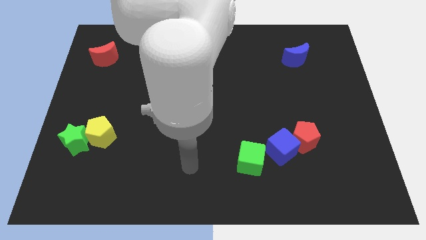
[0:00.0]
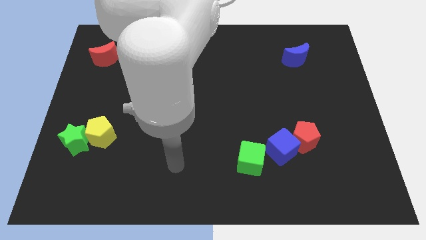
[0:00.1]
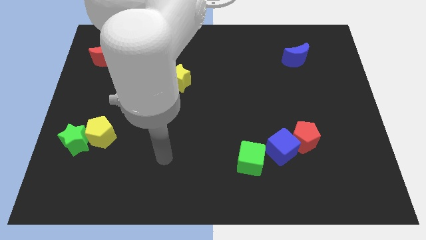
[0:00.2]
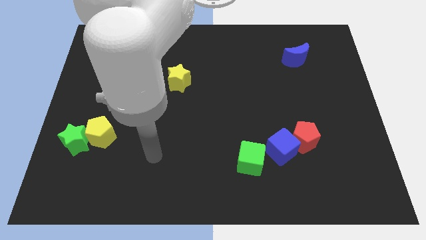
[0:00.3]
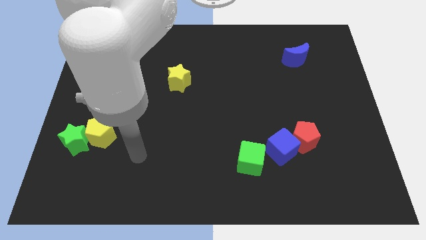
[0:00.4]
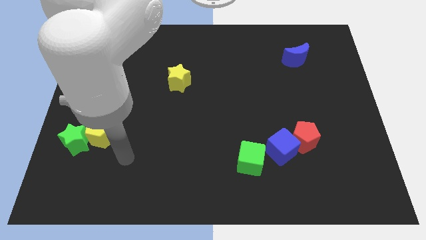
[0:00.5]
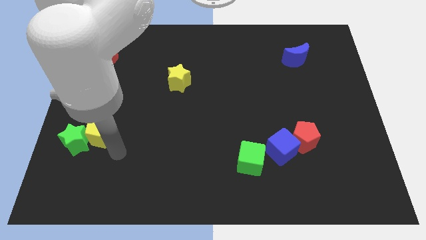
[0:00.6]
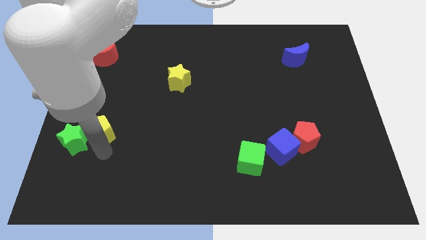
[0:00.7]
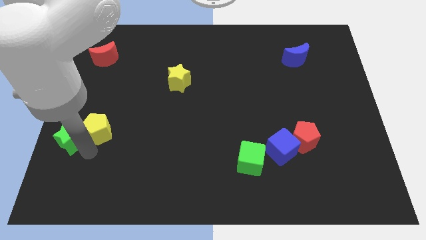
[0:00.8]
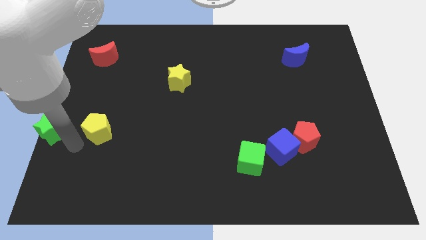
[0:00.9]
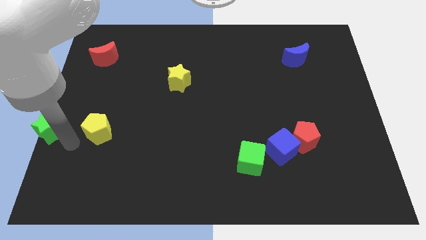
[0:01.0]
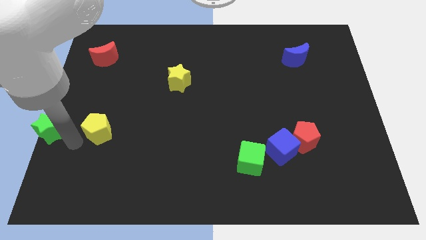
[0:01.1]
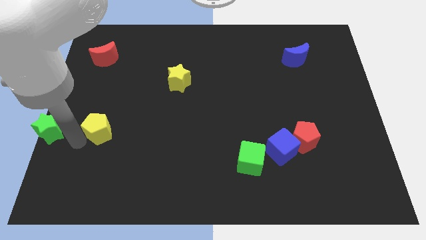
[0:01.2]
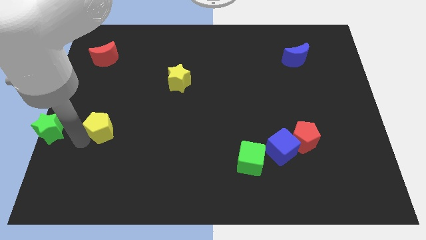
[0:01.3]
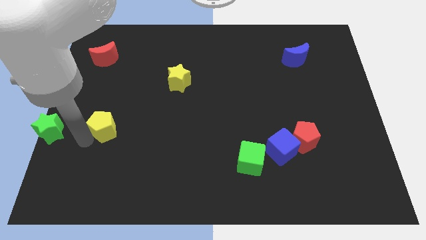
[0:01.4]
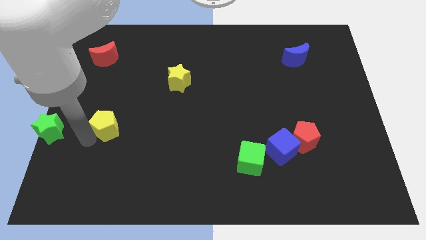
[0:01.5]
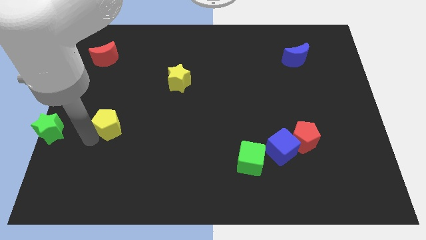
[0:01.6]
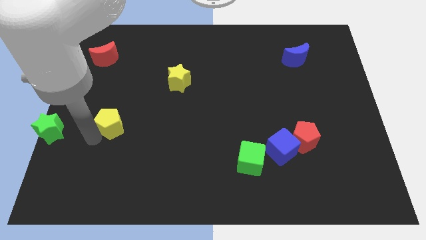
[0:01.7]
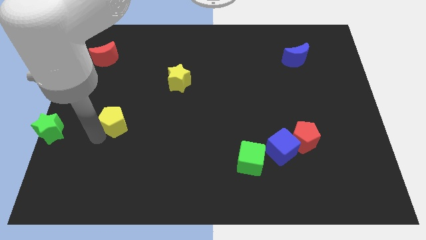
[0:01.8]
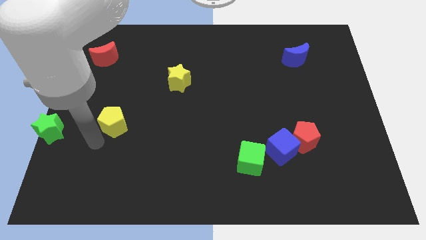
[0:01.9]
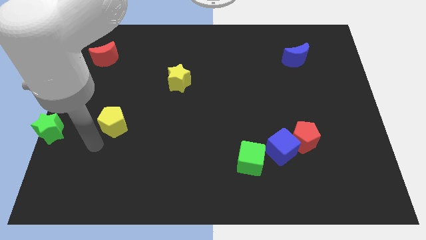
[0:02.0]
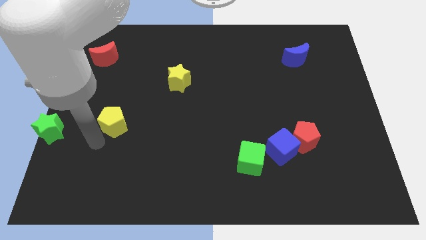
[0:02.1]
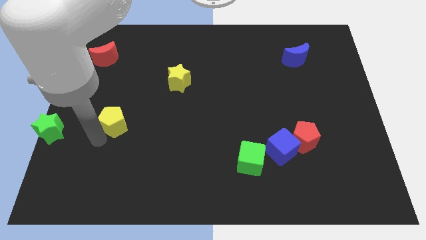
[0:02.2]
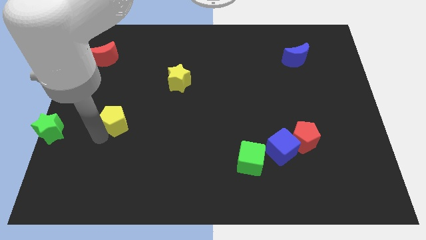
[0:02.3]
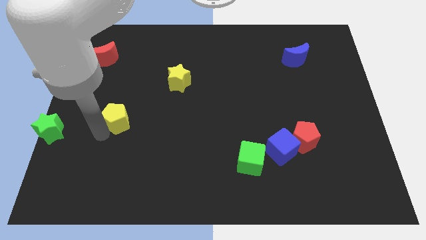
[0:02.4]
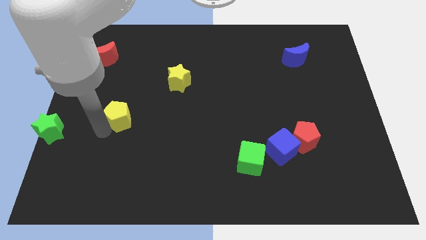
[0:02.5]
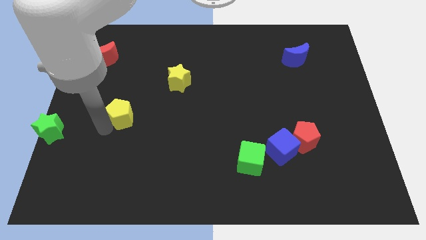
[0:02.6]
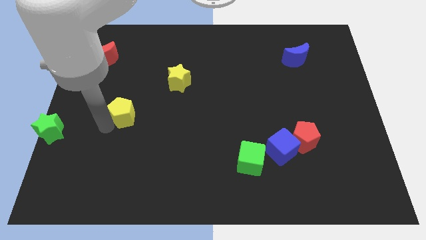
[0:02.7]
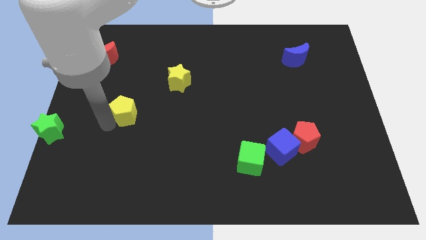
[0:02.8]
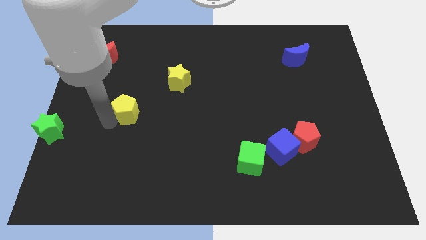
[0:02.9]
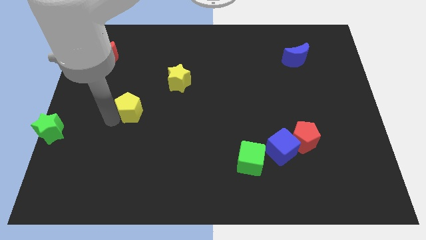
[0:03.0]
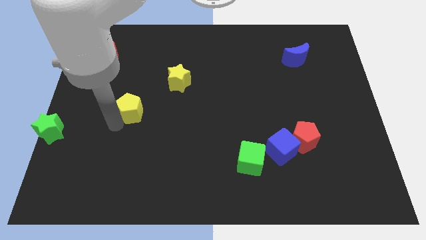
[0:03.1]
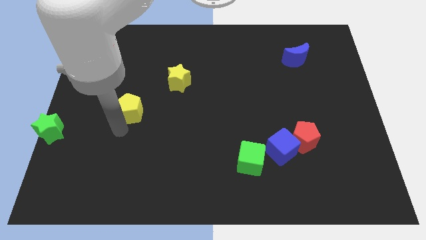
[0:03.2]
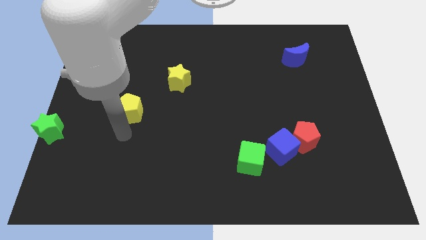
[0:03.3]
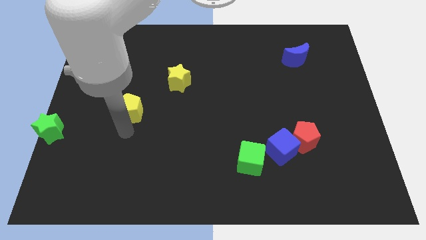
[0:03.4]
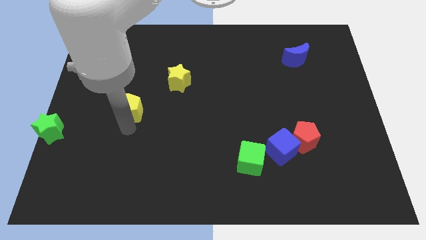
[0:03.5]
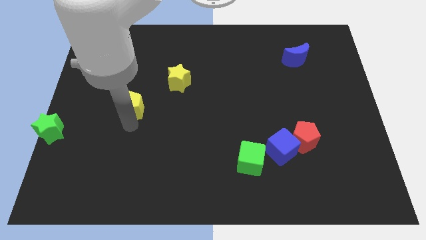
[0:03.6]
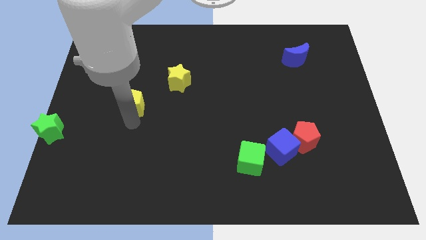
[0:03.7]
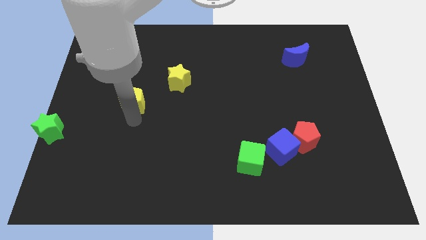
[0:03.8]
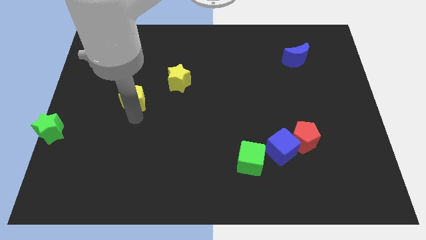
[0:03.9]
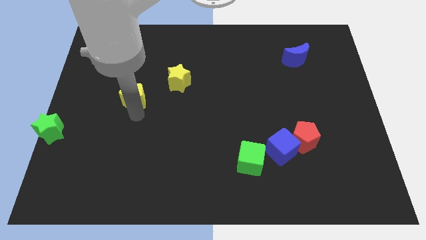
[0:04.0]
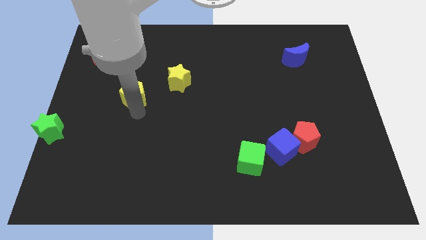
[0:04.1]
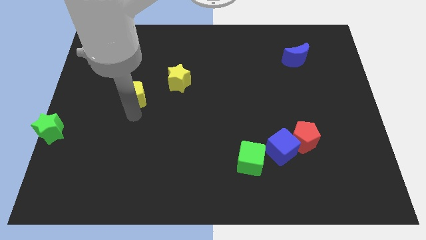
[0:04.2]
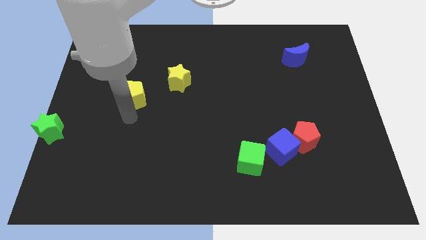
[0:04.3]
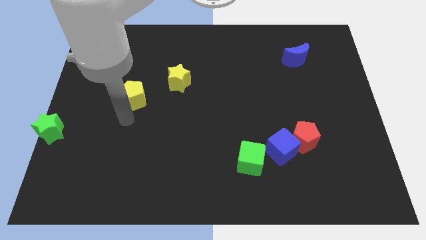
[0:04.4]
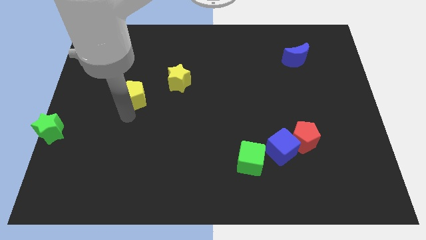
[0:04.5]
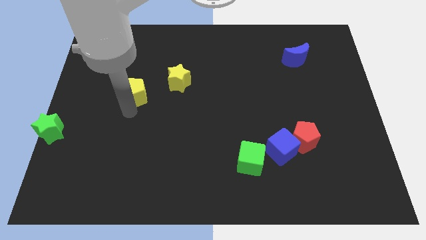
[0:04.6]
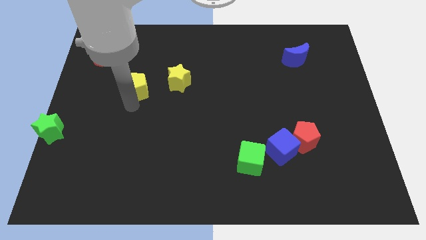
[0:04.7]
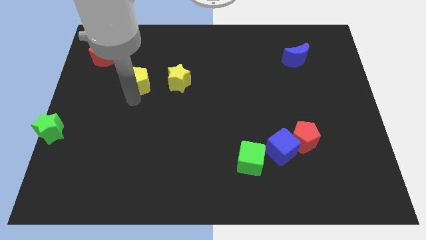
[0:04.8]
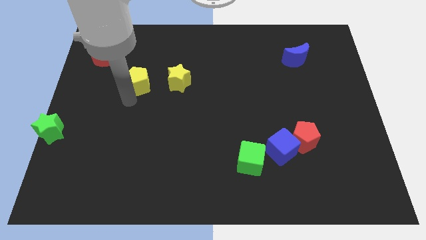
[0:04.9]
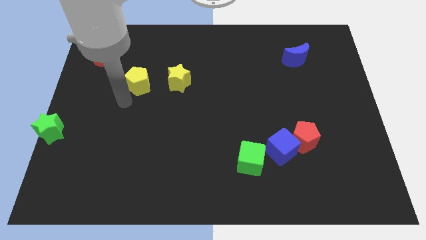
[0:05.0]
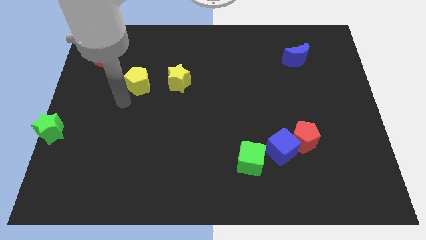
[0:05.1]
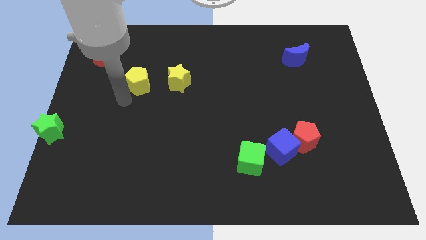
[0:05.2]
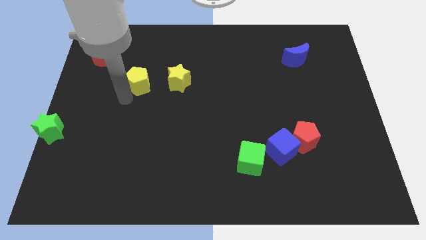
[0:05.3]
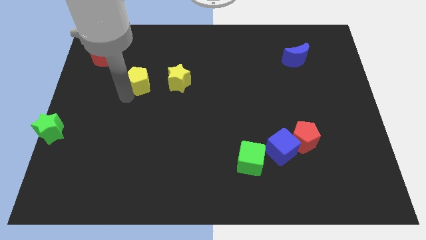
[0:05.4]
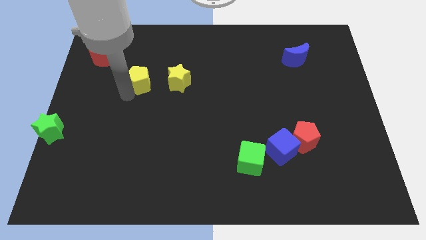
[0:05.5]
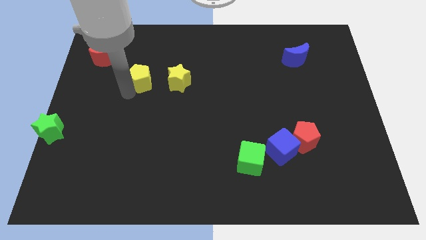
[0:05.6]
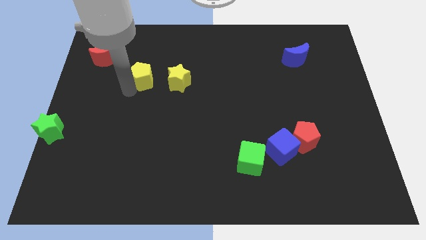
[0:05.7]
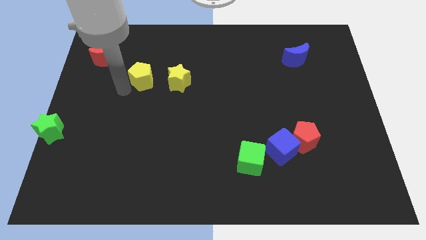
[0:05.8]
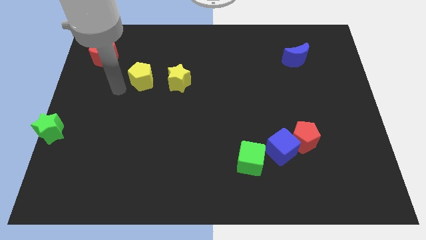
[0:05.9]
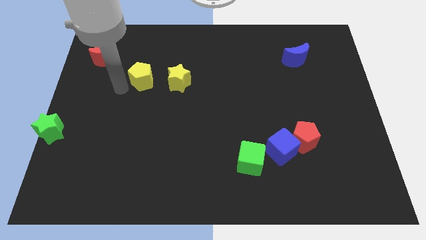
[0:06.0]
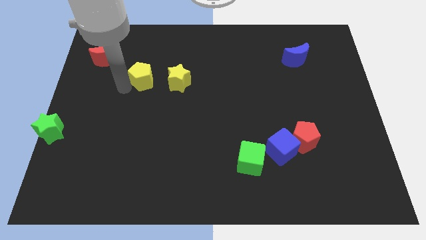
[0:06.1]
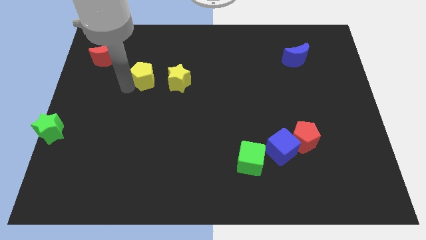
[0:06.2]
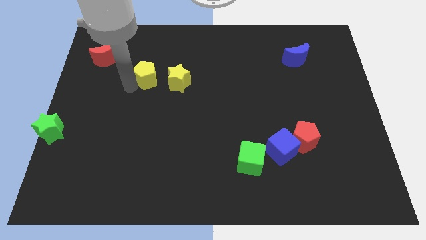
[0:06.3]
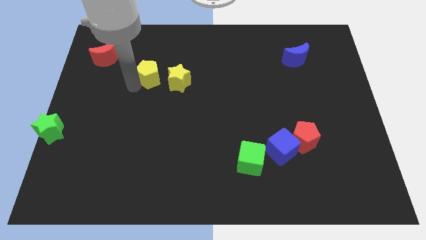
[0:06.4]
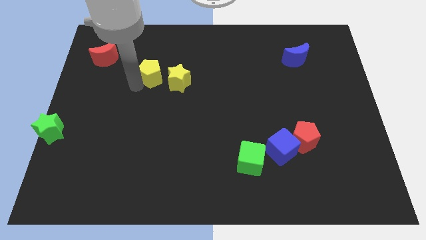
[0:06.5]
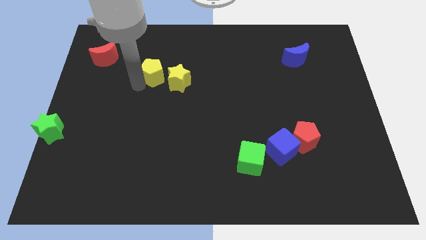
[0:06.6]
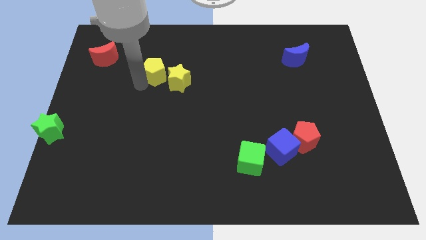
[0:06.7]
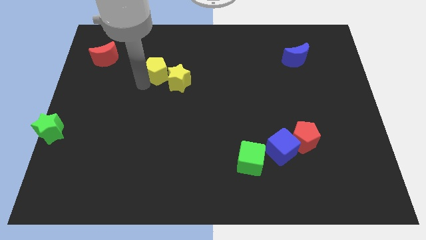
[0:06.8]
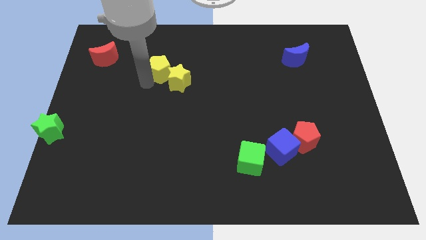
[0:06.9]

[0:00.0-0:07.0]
slide the yellow pentagon up and to the right

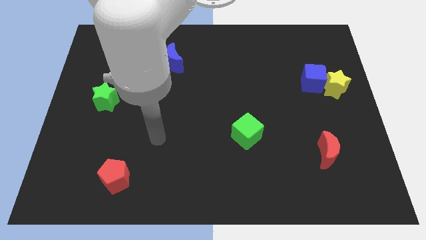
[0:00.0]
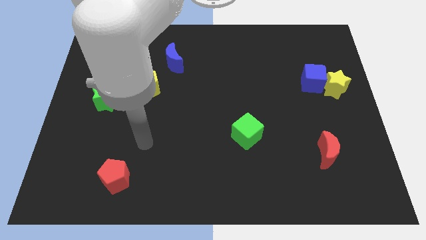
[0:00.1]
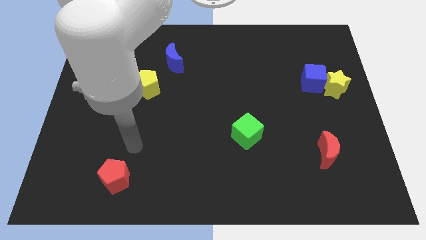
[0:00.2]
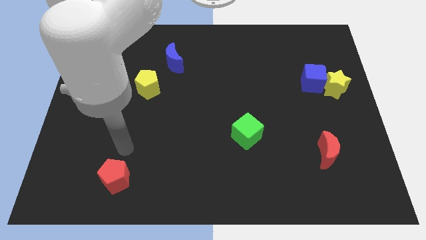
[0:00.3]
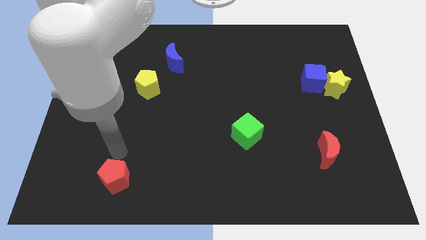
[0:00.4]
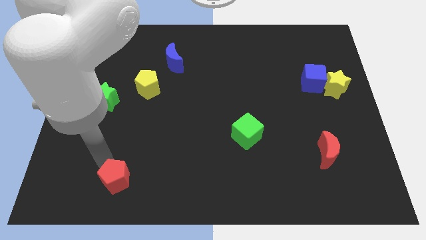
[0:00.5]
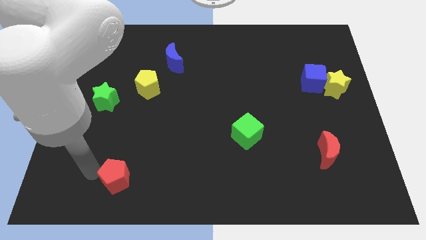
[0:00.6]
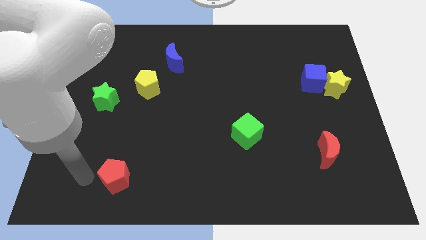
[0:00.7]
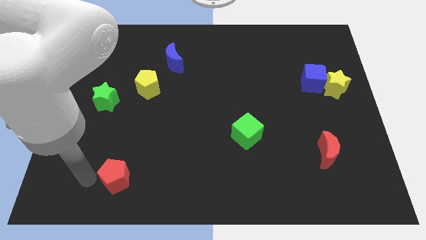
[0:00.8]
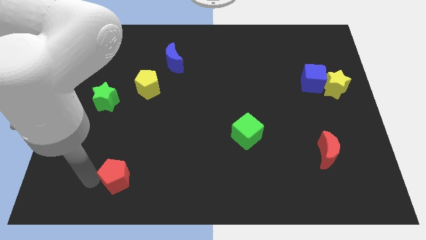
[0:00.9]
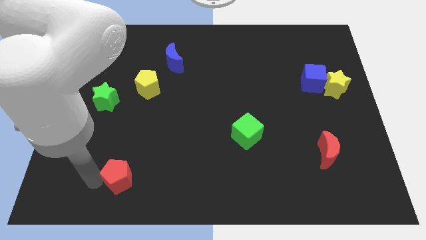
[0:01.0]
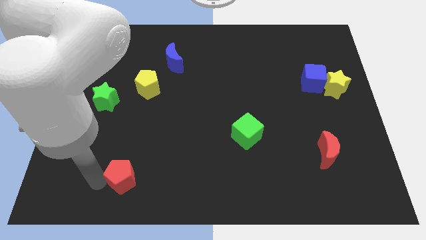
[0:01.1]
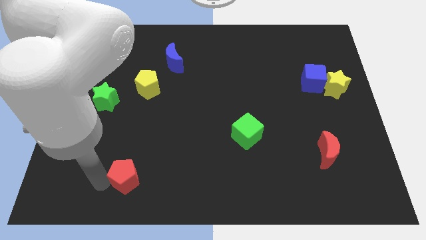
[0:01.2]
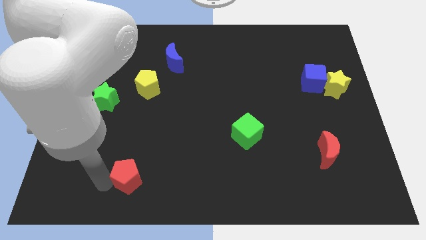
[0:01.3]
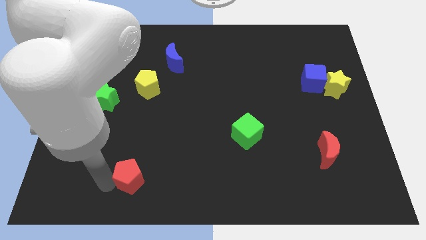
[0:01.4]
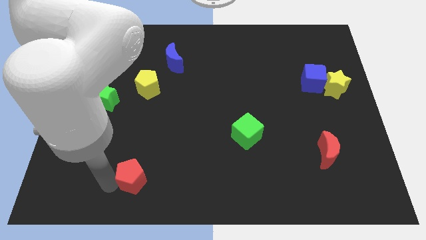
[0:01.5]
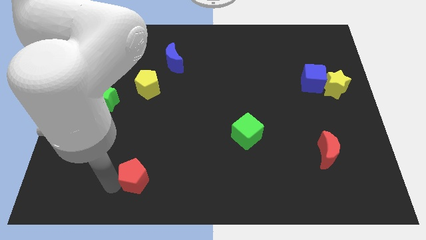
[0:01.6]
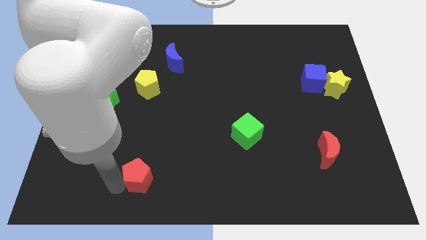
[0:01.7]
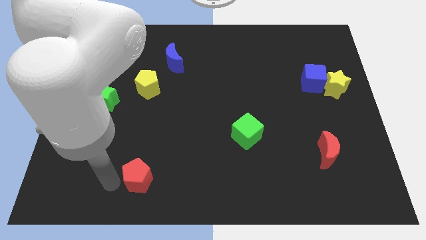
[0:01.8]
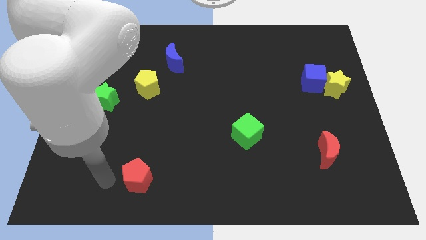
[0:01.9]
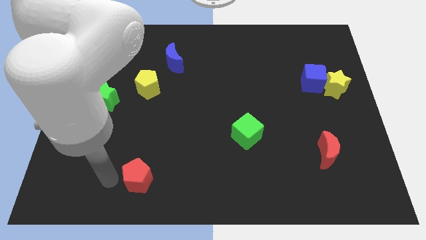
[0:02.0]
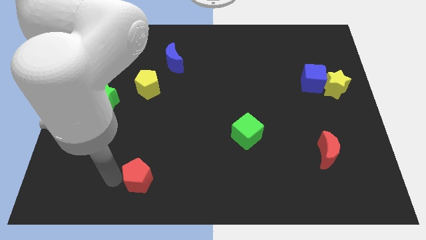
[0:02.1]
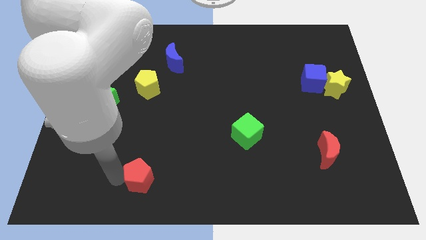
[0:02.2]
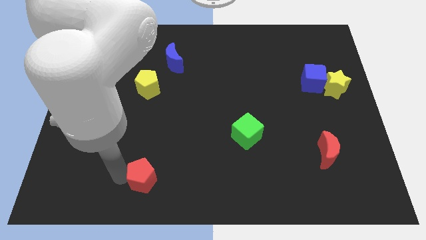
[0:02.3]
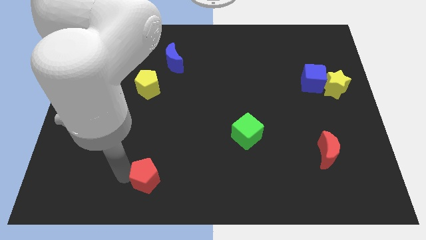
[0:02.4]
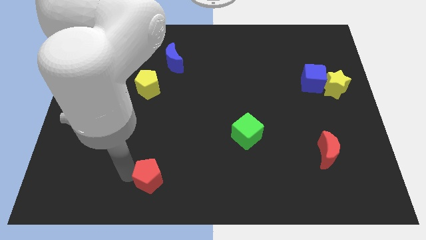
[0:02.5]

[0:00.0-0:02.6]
move the red pentagon right slightly
